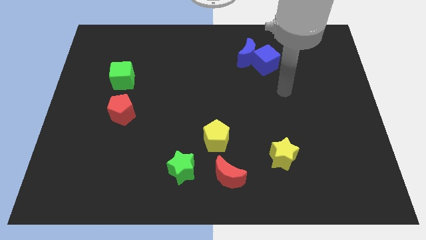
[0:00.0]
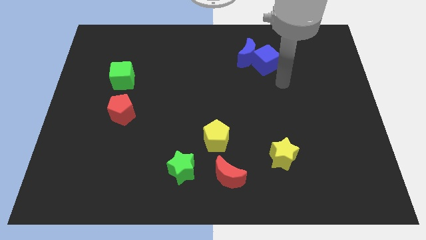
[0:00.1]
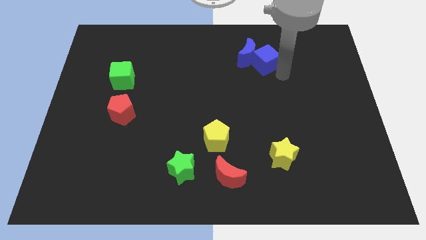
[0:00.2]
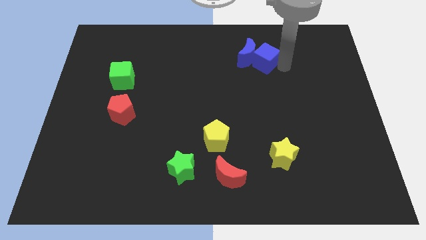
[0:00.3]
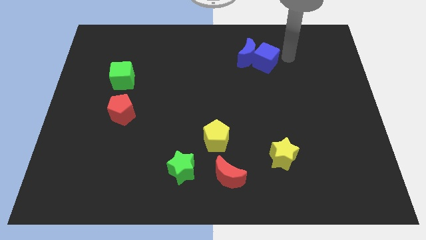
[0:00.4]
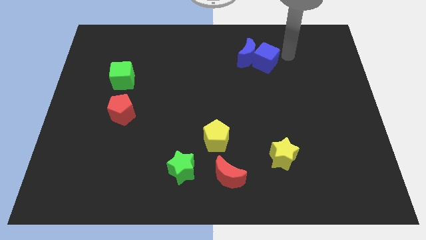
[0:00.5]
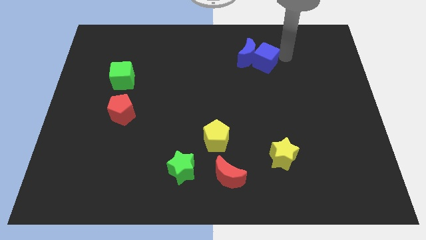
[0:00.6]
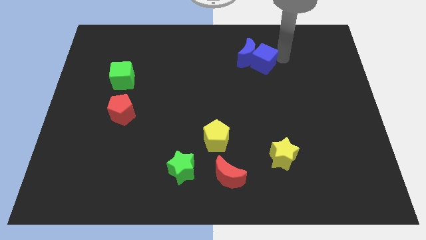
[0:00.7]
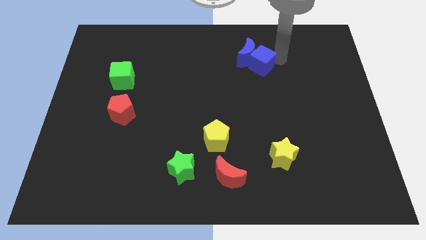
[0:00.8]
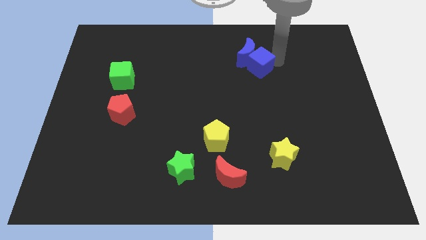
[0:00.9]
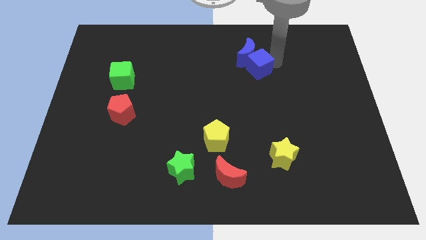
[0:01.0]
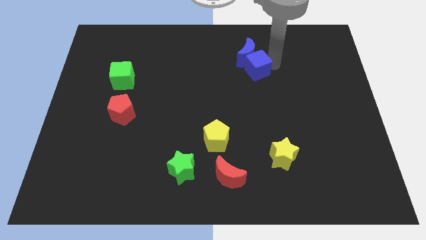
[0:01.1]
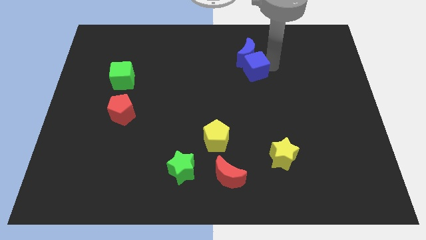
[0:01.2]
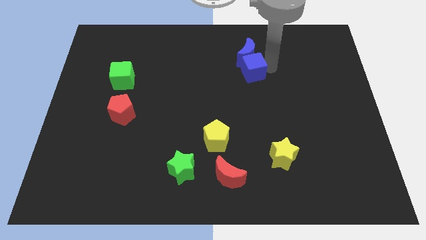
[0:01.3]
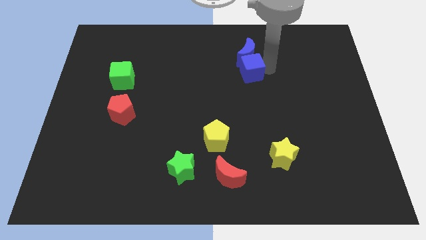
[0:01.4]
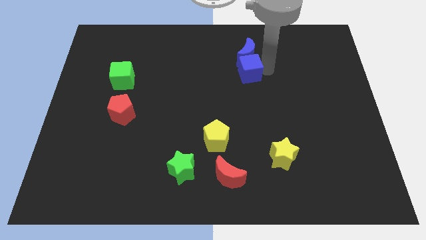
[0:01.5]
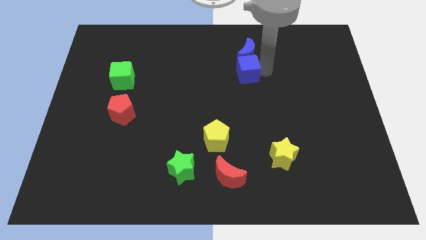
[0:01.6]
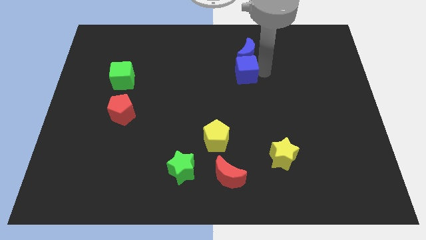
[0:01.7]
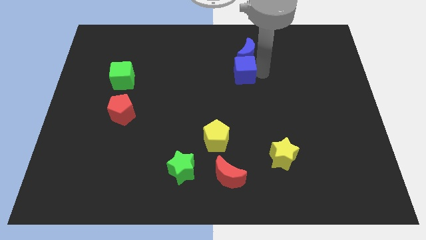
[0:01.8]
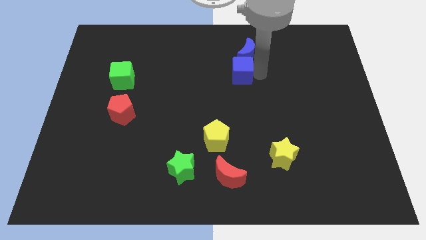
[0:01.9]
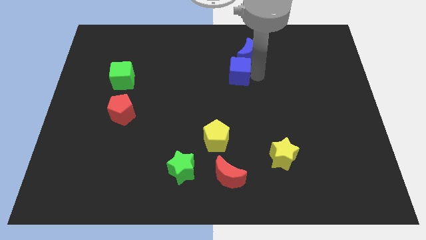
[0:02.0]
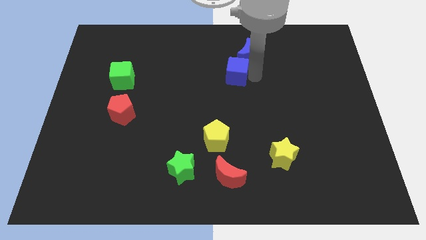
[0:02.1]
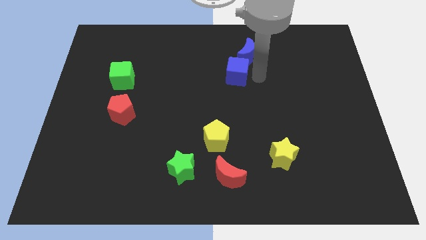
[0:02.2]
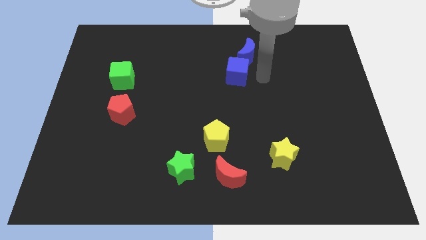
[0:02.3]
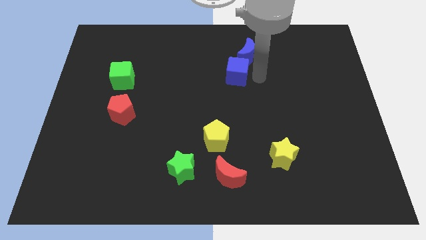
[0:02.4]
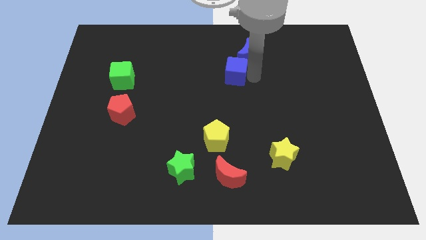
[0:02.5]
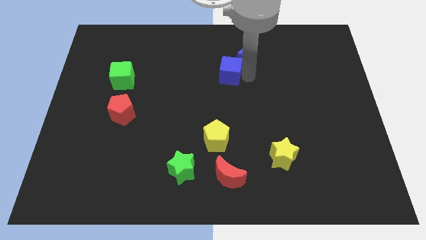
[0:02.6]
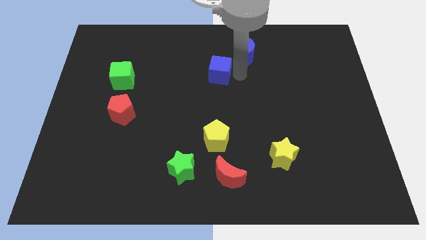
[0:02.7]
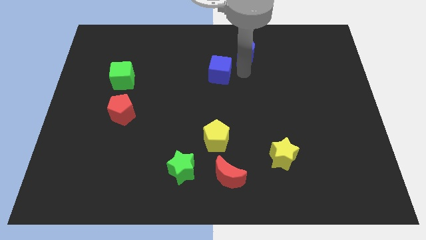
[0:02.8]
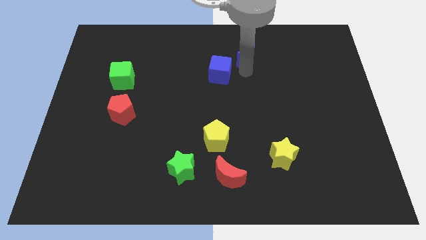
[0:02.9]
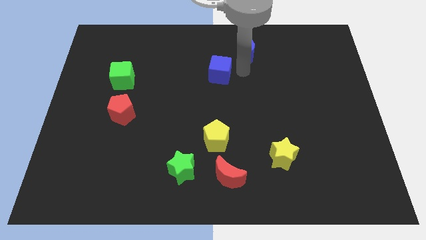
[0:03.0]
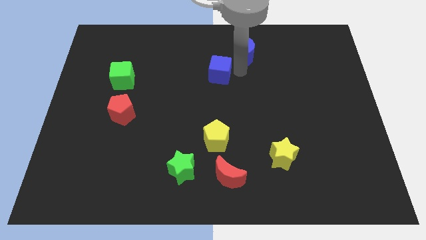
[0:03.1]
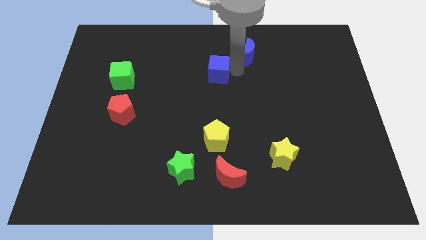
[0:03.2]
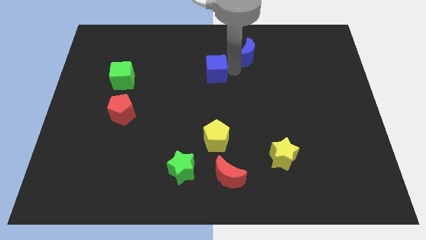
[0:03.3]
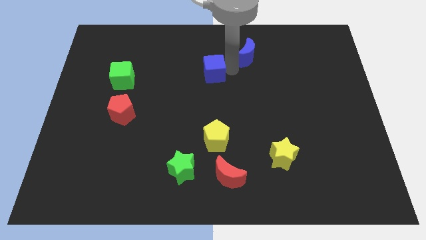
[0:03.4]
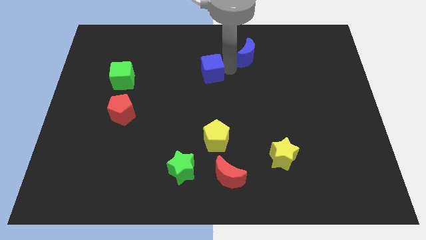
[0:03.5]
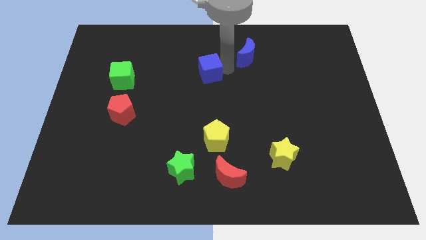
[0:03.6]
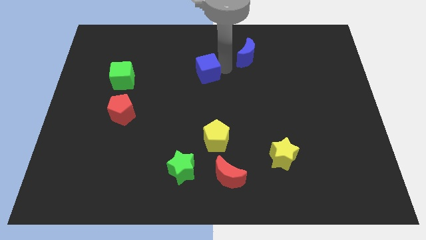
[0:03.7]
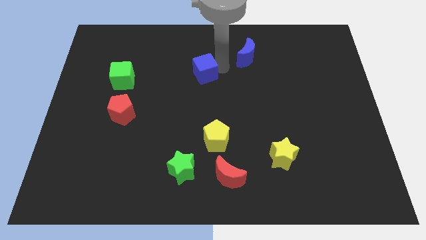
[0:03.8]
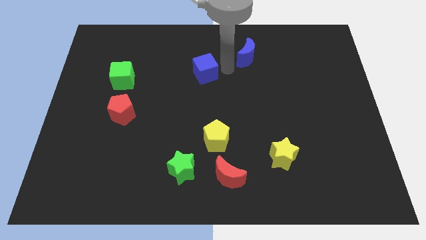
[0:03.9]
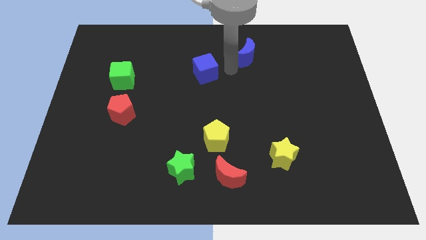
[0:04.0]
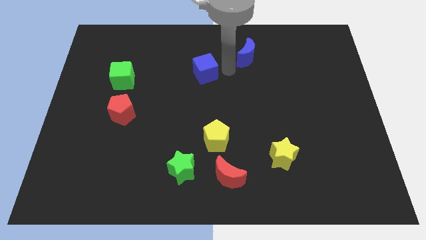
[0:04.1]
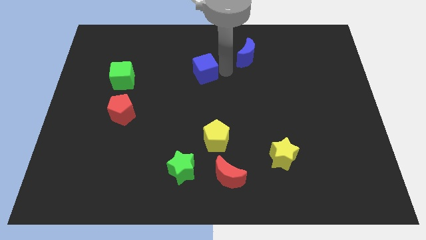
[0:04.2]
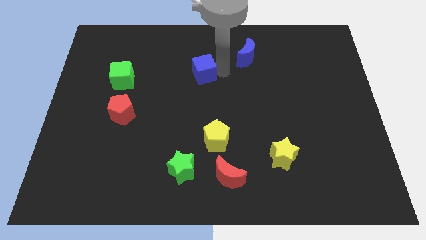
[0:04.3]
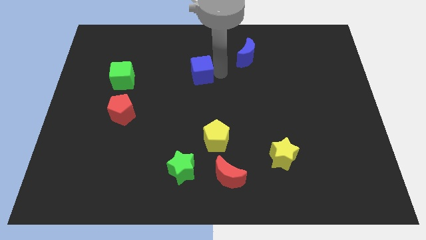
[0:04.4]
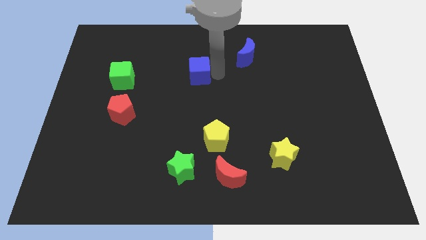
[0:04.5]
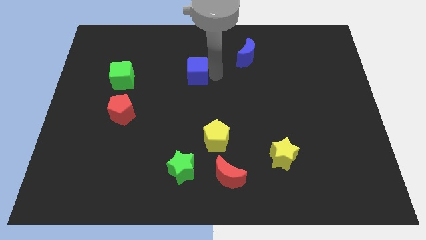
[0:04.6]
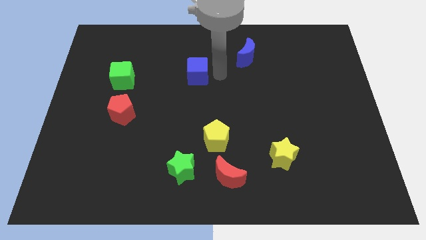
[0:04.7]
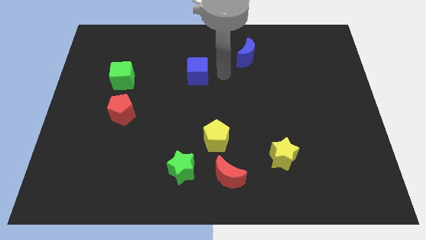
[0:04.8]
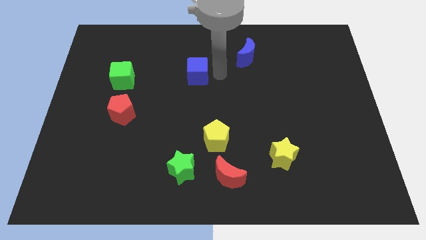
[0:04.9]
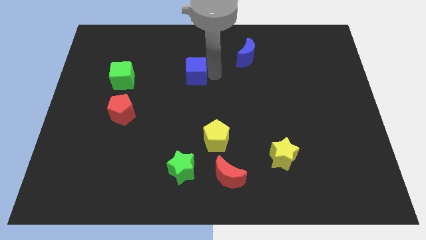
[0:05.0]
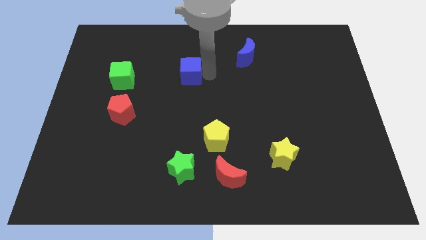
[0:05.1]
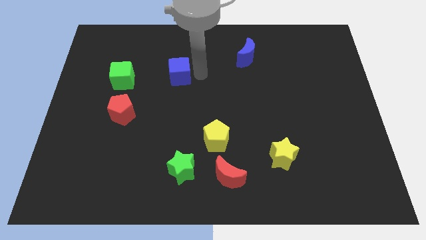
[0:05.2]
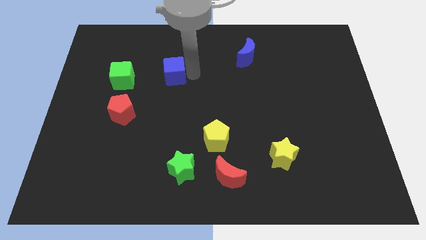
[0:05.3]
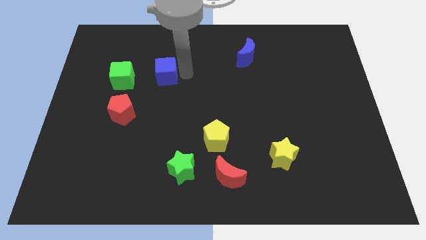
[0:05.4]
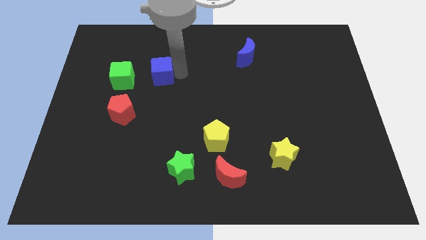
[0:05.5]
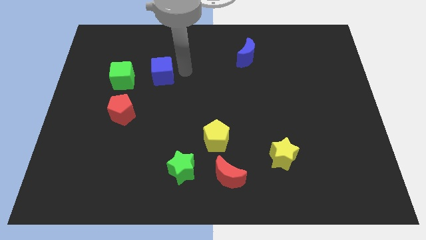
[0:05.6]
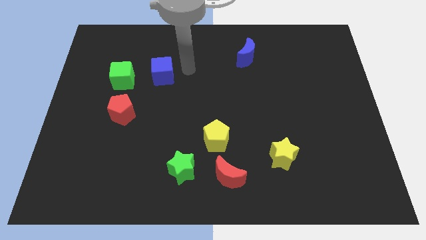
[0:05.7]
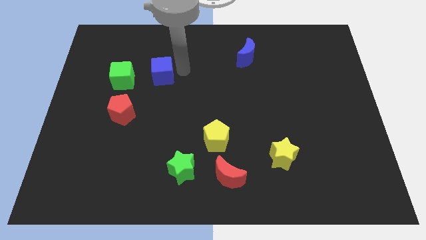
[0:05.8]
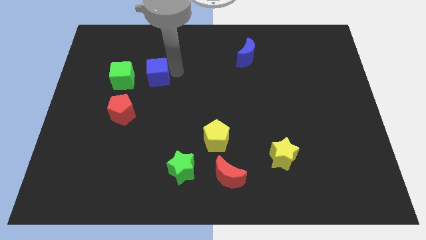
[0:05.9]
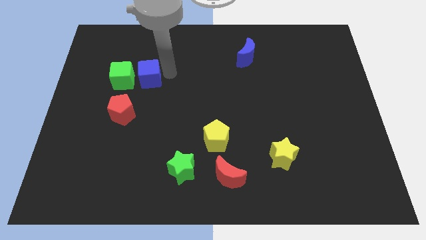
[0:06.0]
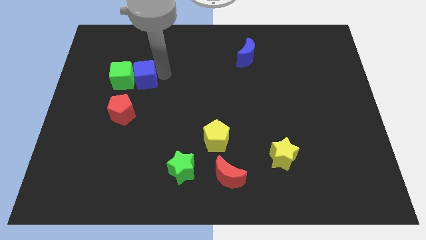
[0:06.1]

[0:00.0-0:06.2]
move the blue cube to the green cube

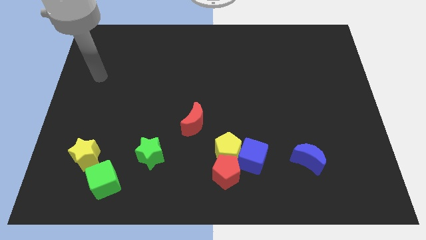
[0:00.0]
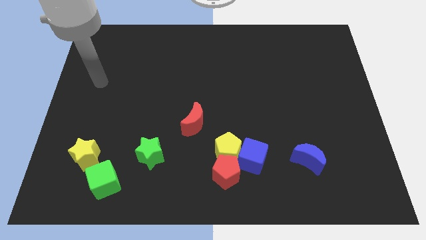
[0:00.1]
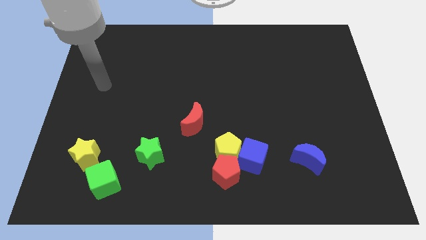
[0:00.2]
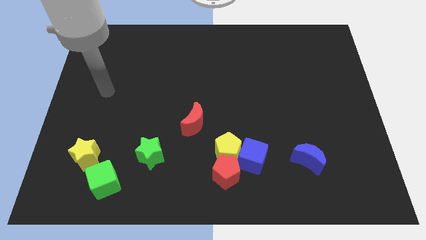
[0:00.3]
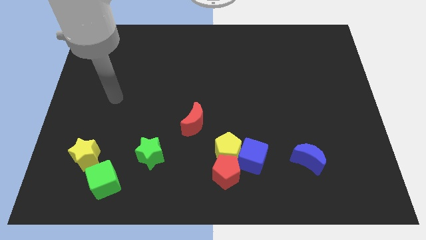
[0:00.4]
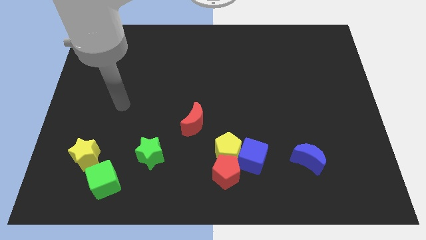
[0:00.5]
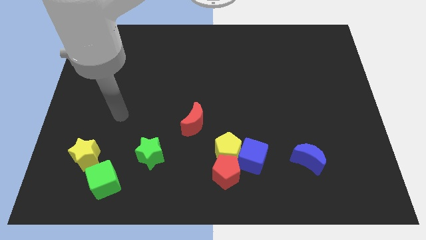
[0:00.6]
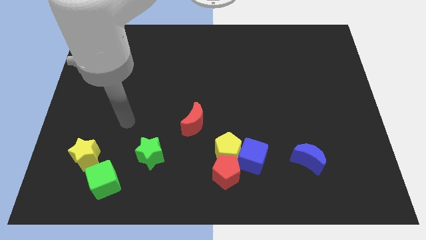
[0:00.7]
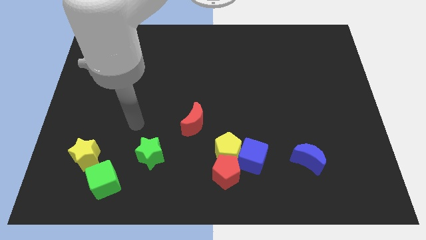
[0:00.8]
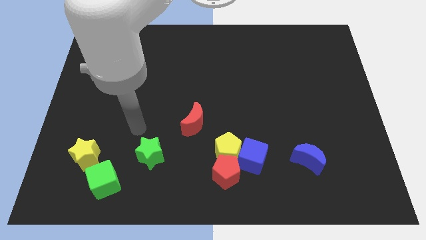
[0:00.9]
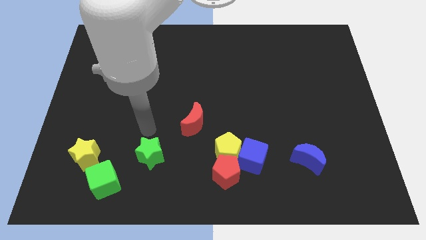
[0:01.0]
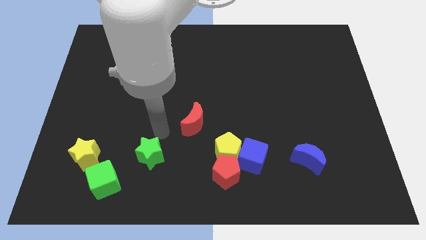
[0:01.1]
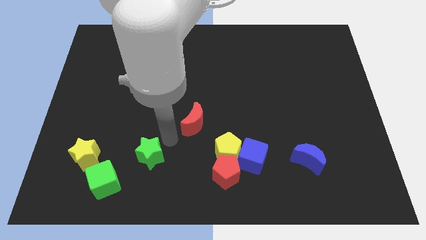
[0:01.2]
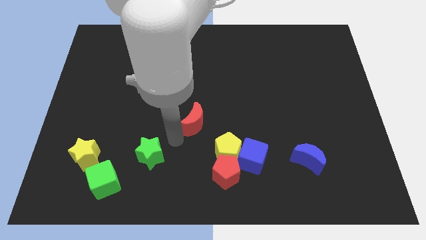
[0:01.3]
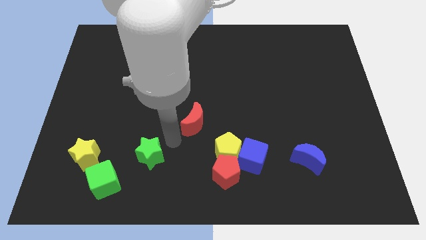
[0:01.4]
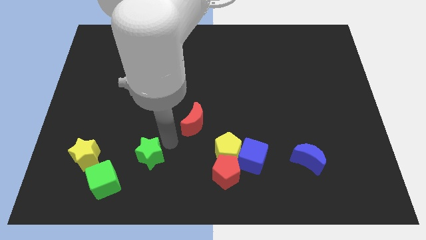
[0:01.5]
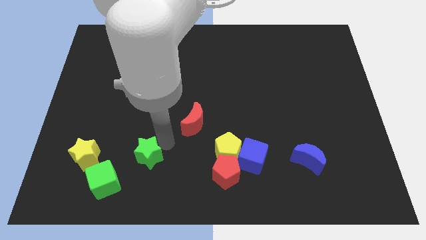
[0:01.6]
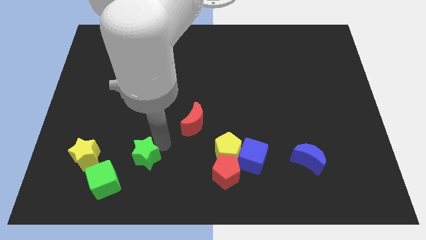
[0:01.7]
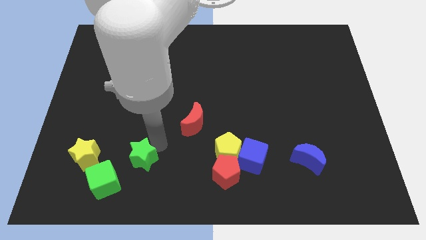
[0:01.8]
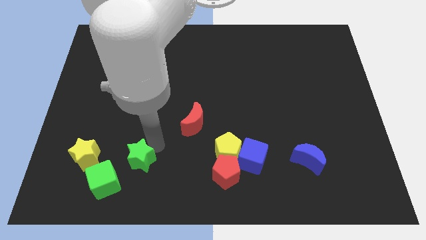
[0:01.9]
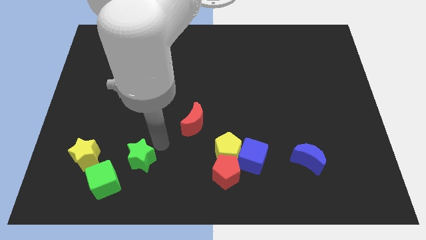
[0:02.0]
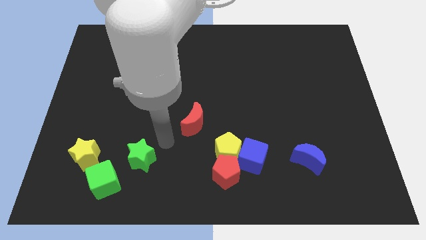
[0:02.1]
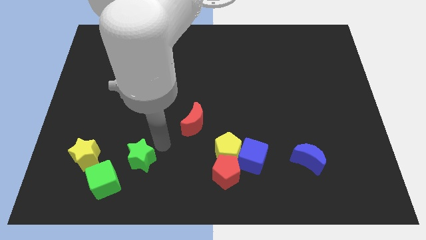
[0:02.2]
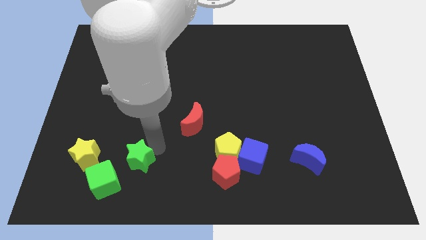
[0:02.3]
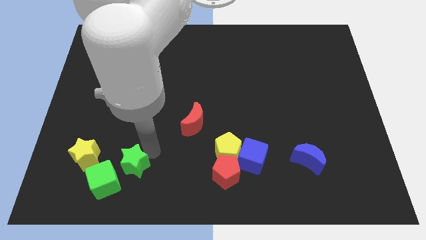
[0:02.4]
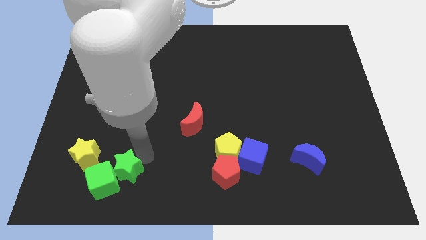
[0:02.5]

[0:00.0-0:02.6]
put the green star close to the green cube
